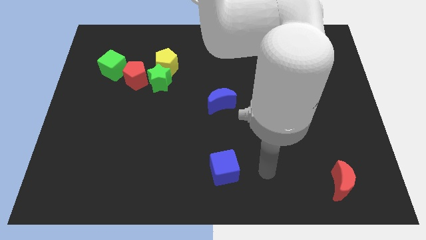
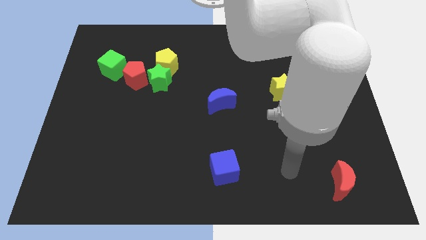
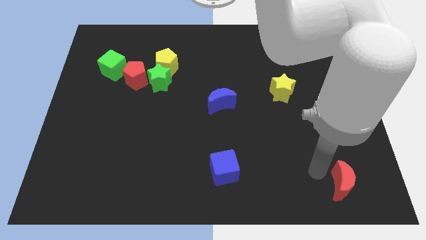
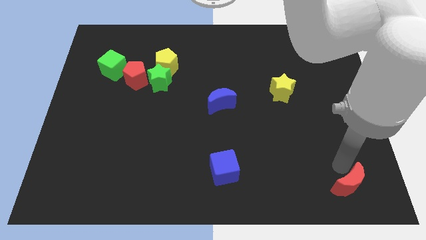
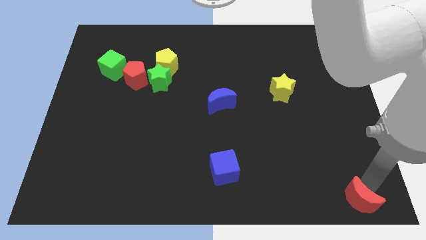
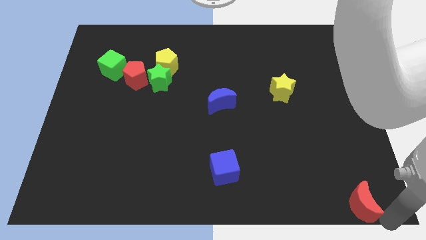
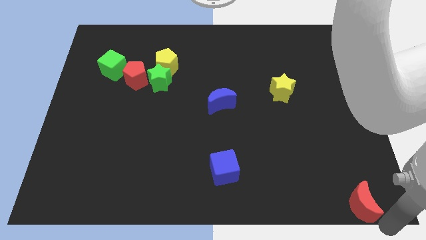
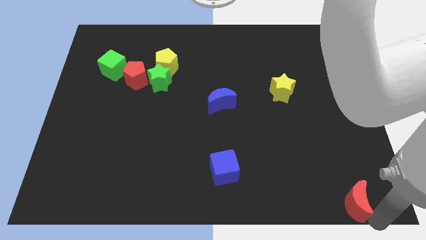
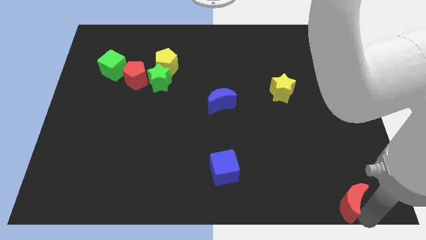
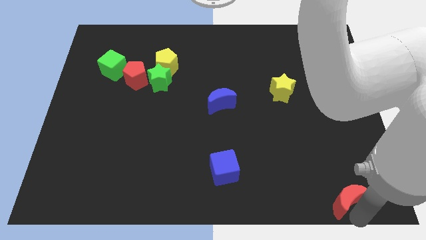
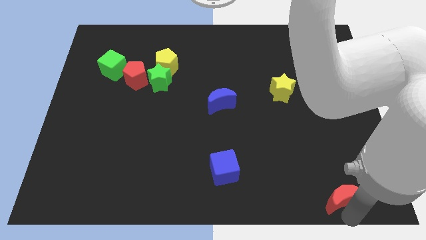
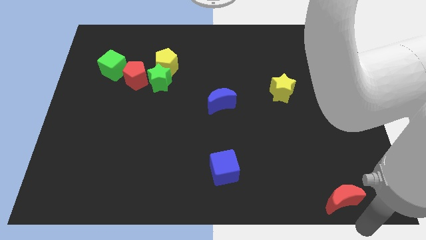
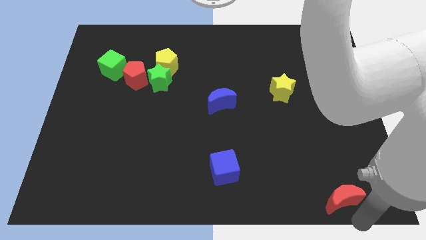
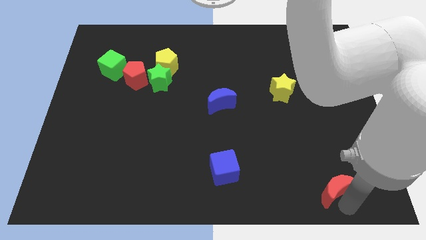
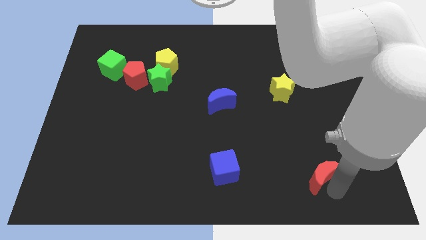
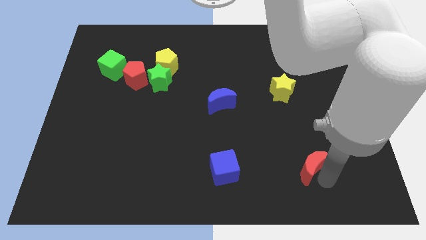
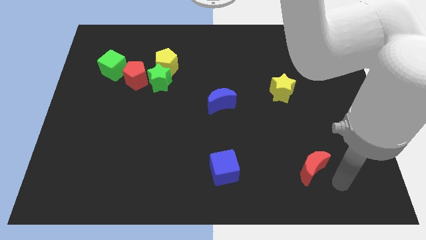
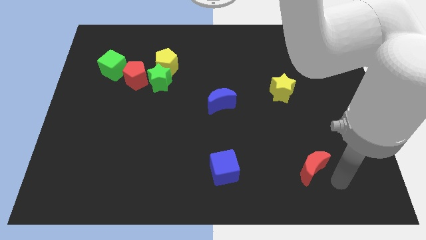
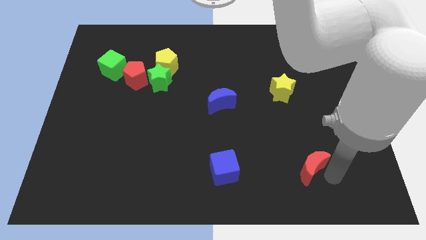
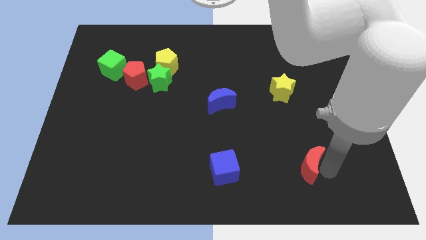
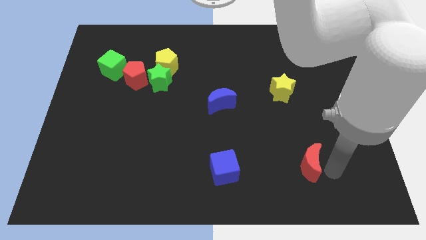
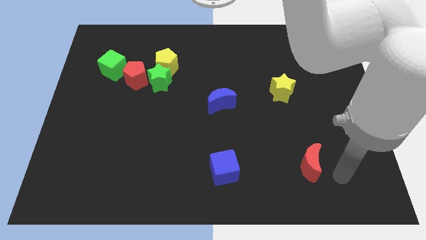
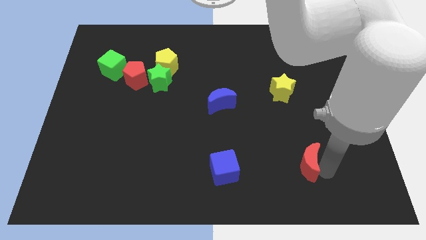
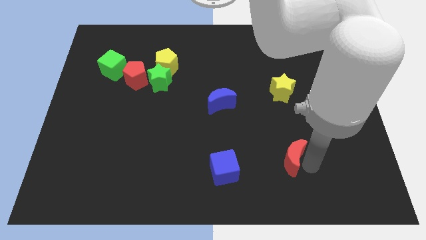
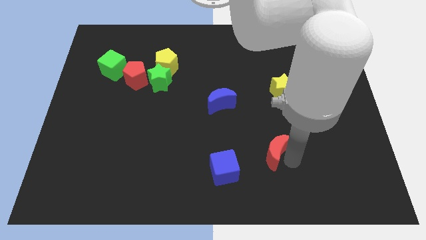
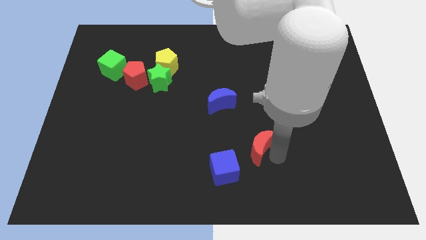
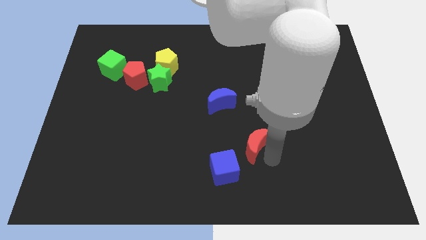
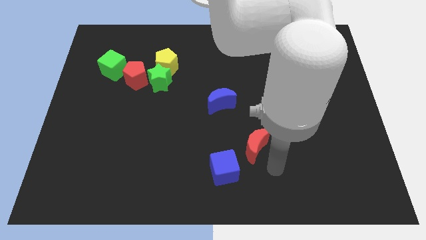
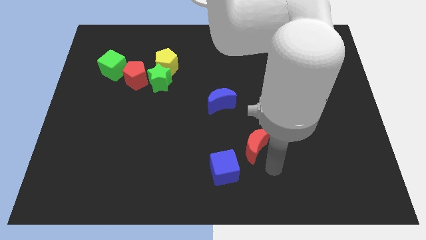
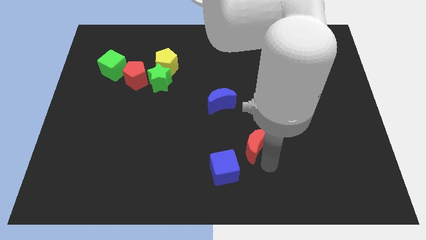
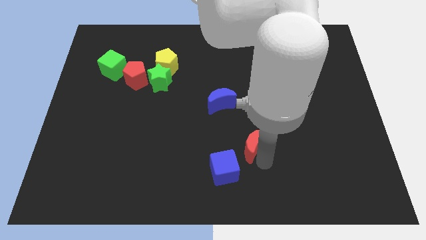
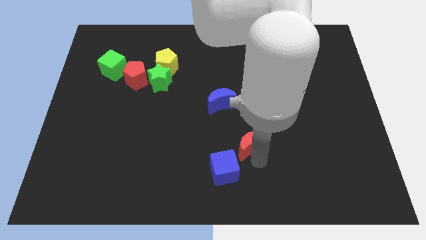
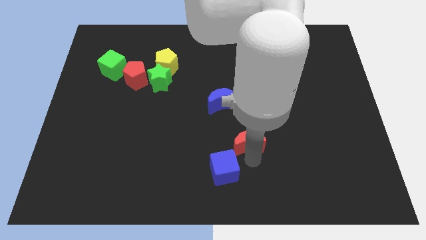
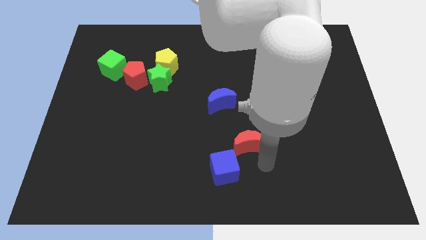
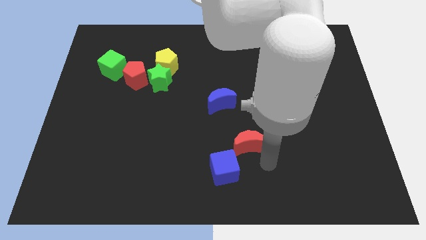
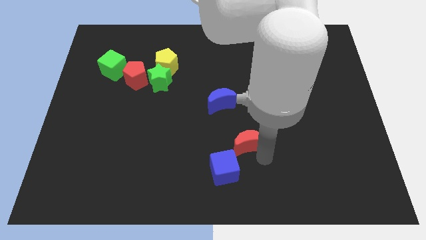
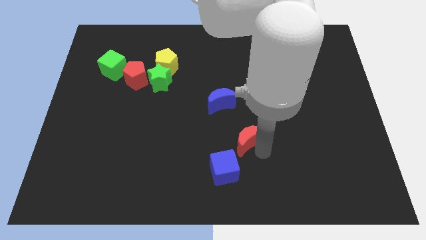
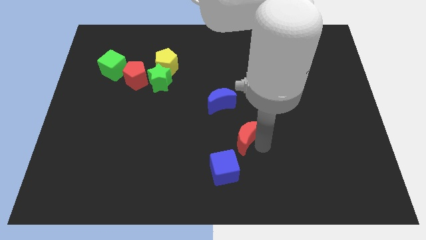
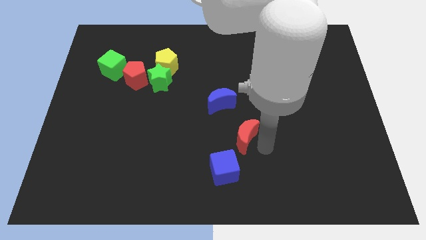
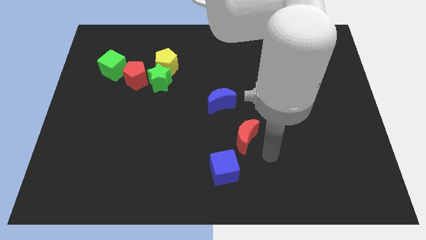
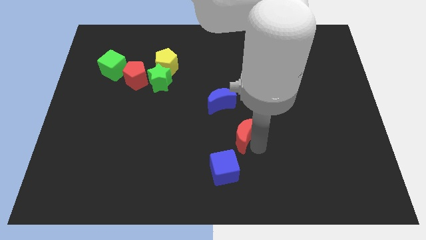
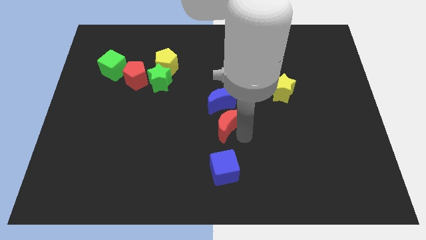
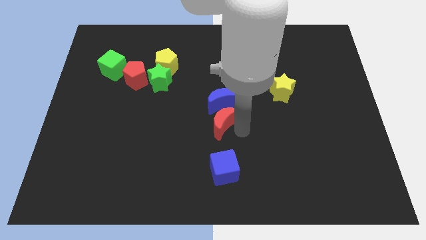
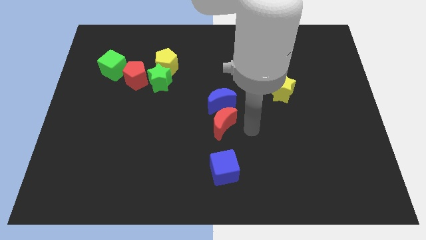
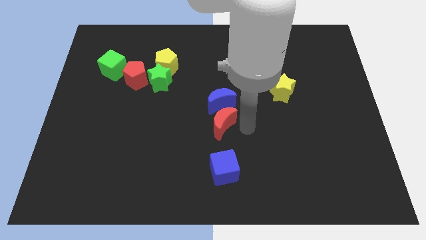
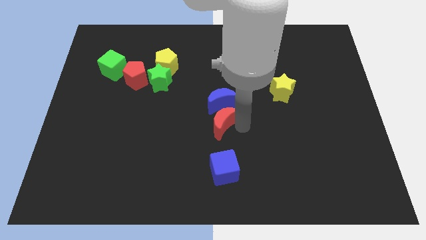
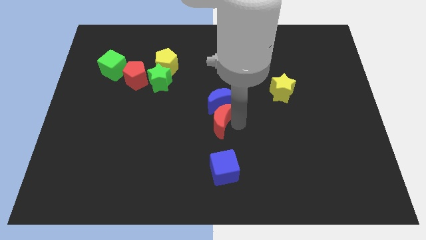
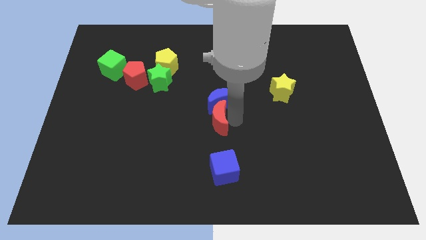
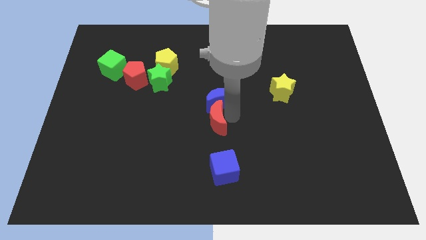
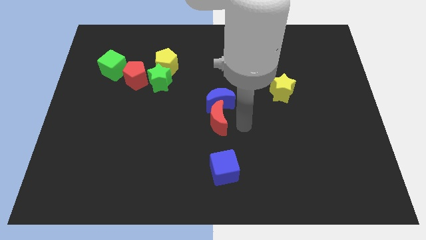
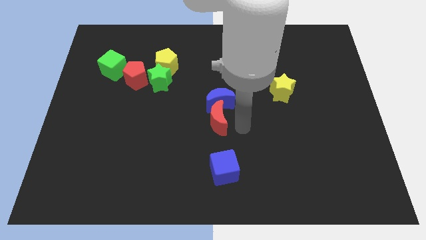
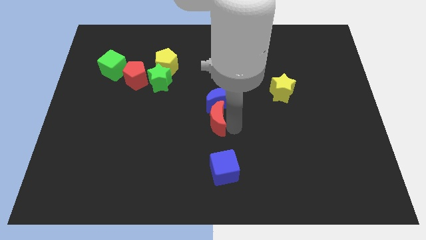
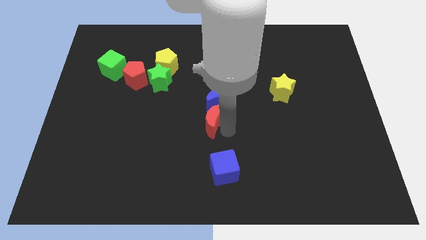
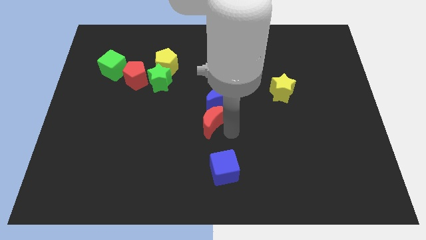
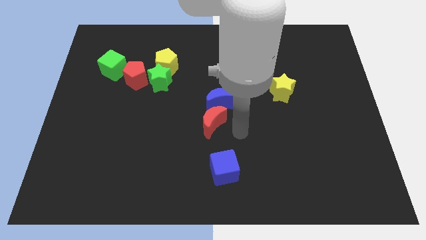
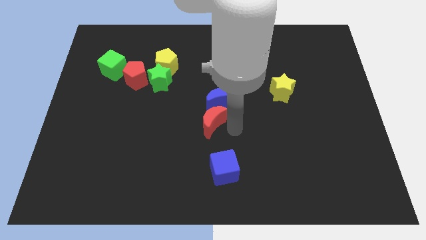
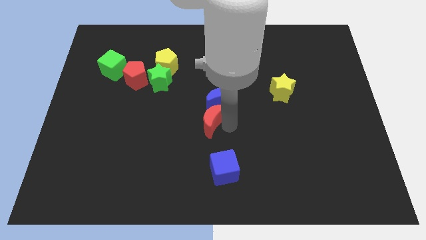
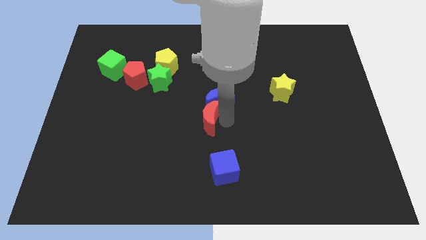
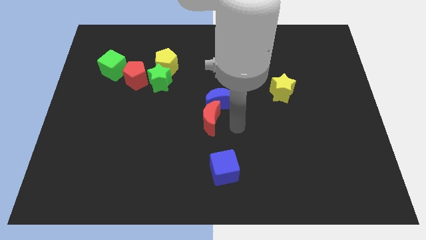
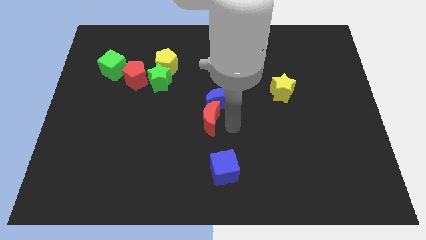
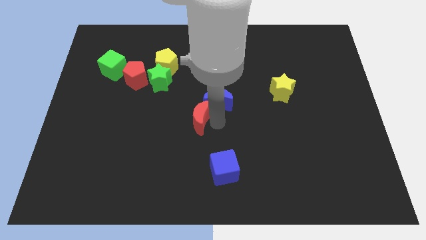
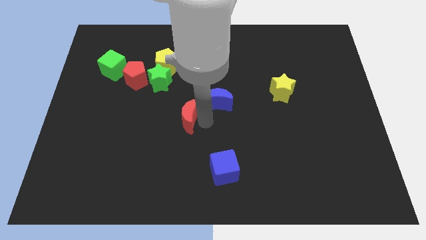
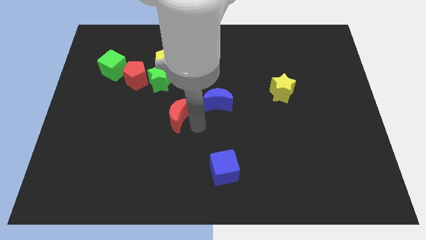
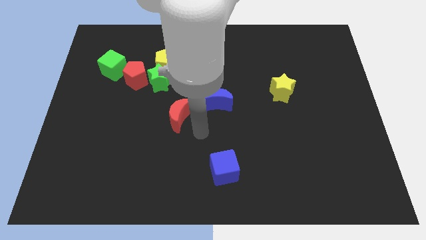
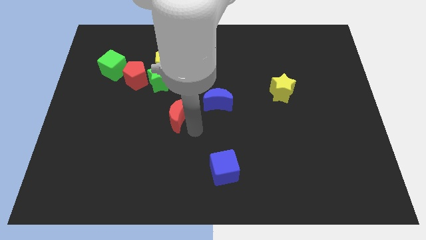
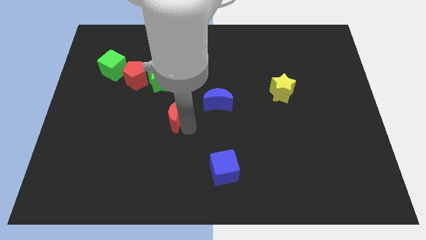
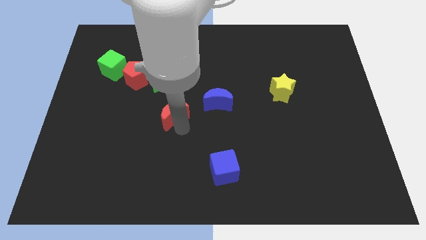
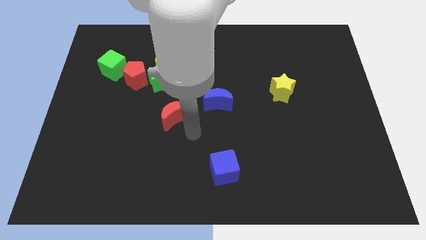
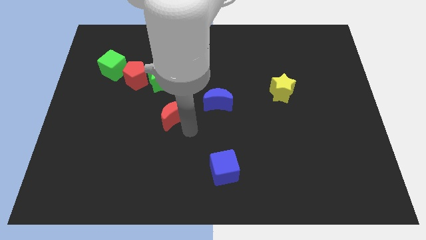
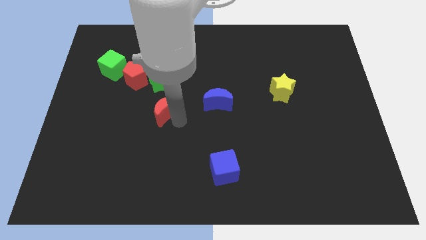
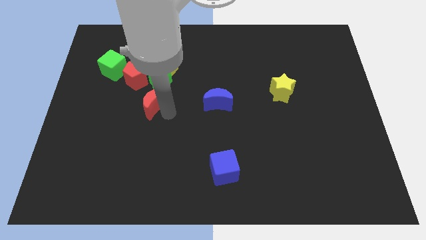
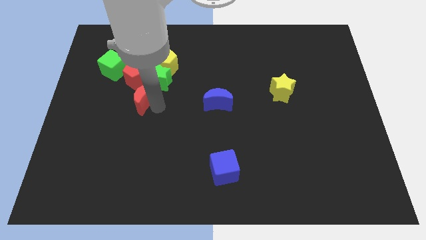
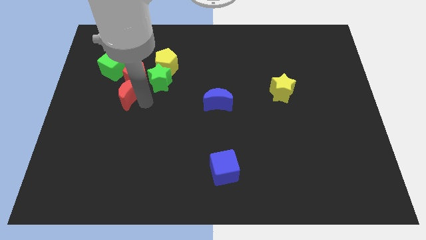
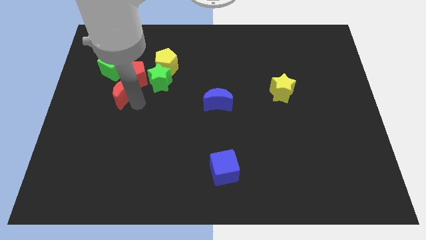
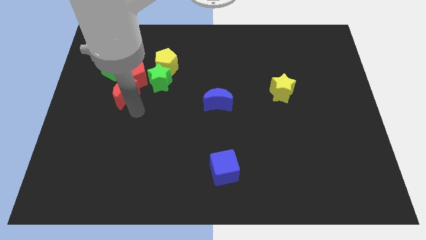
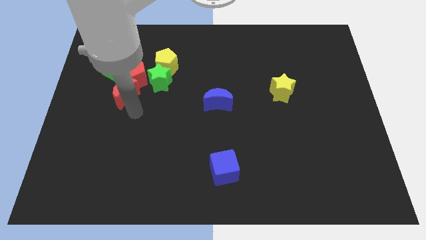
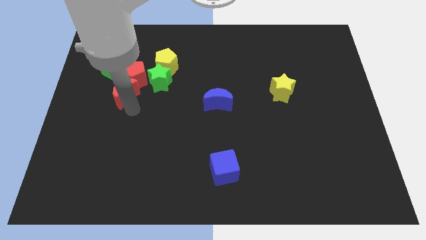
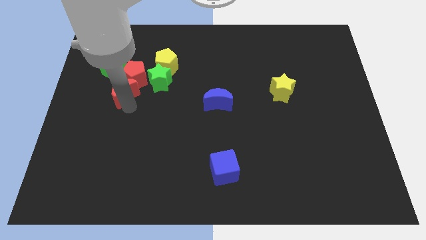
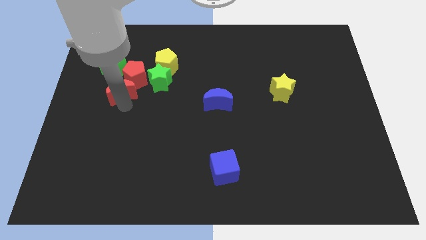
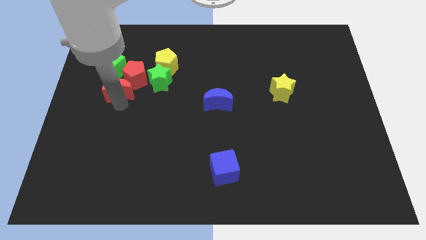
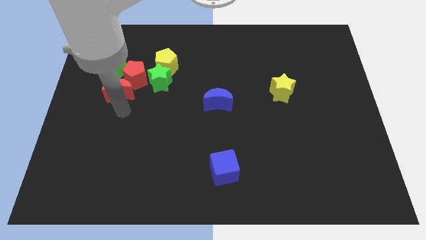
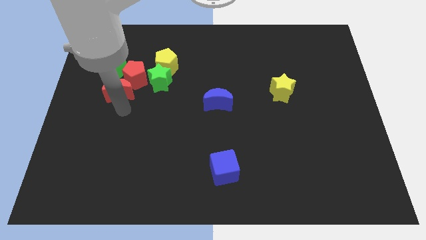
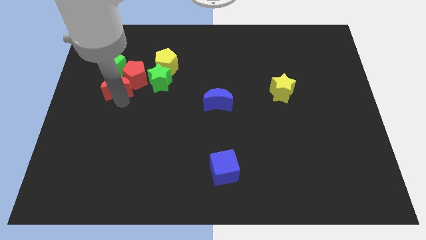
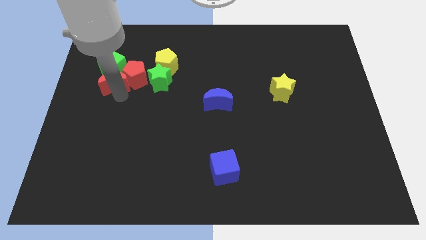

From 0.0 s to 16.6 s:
put the red moon next to the green cube
